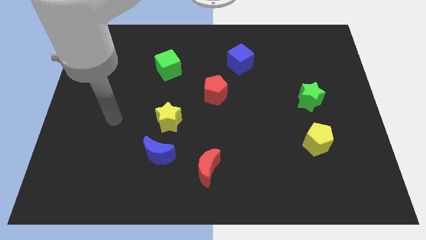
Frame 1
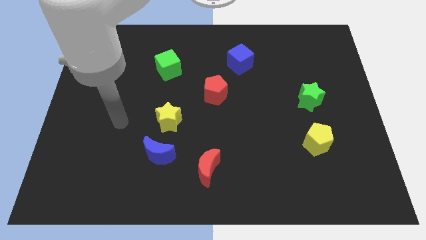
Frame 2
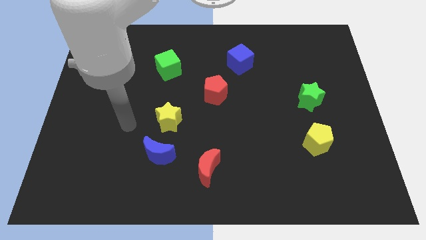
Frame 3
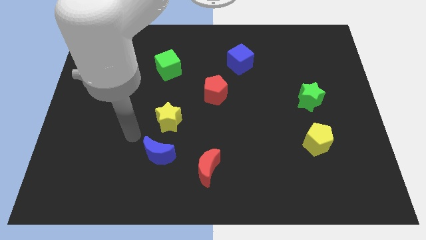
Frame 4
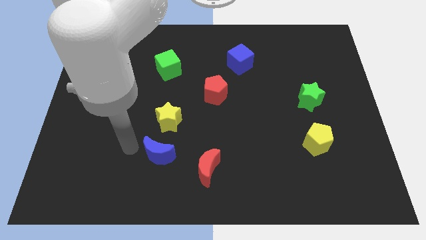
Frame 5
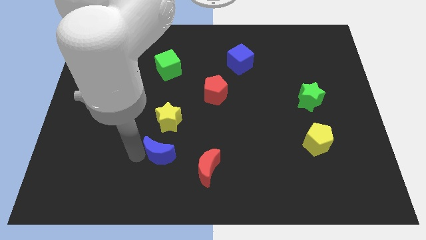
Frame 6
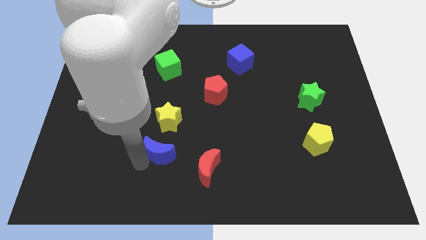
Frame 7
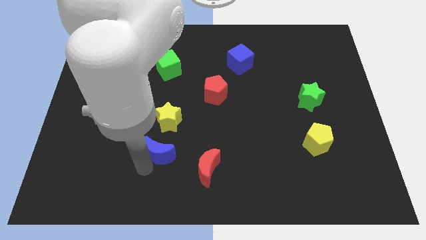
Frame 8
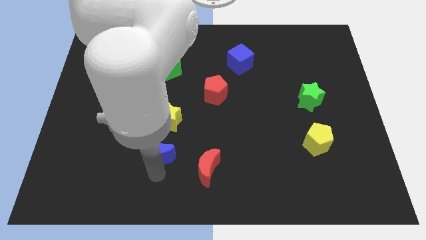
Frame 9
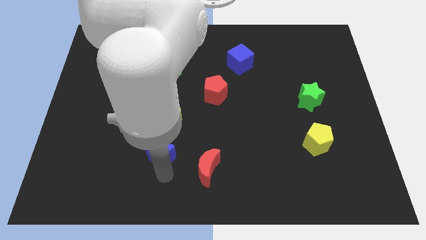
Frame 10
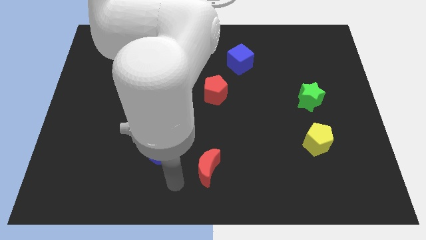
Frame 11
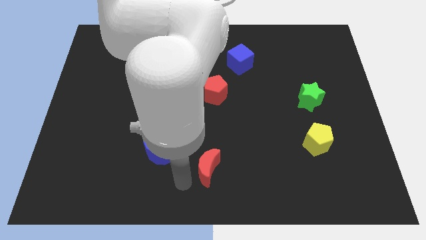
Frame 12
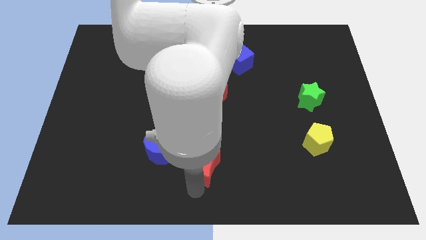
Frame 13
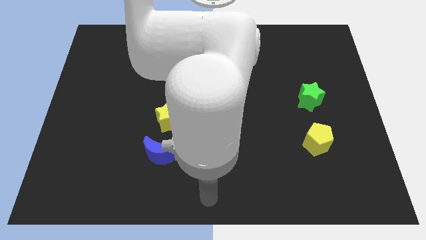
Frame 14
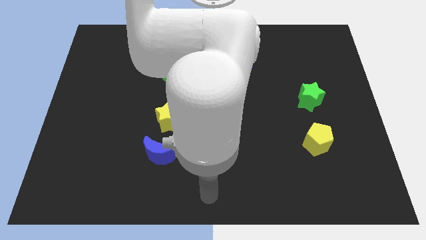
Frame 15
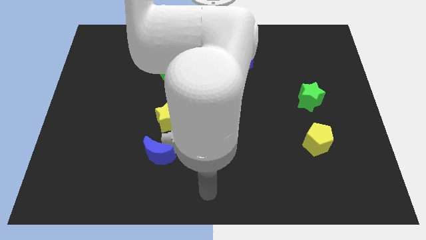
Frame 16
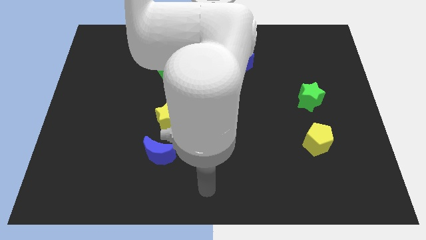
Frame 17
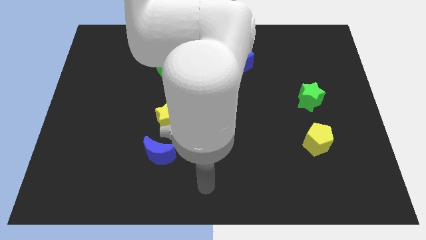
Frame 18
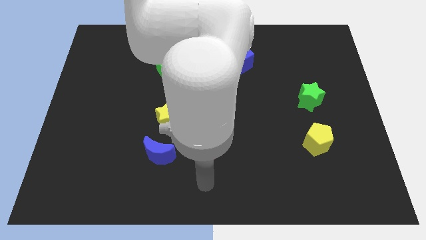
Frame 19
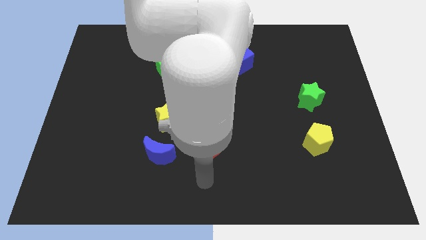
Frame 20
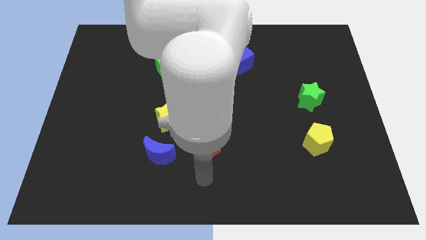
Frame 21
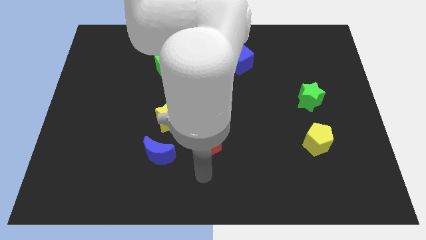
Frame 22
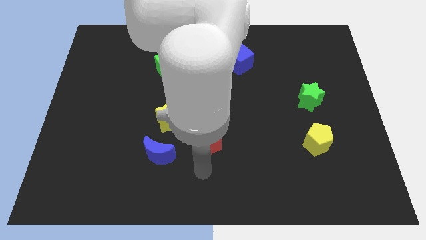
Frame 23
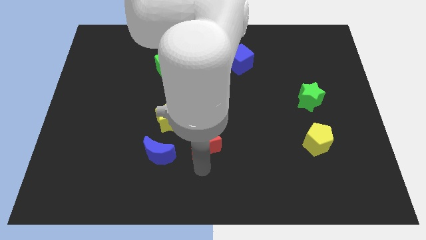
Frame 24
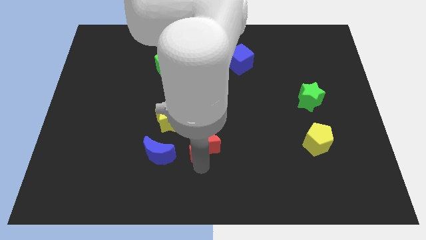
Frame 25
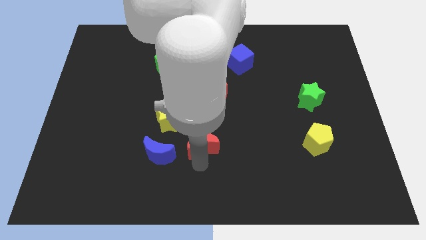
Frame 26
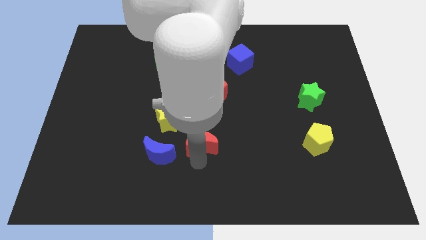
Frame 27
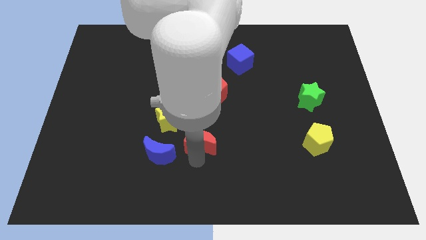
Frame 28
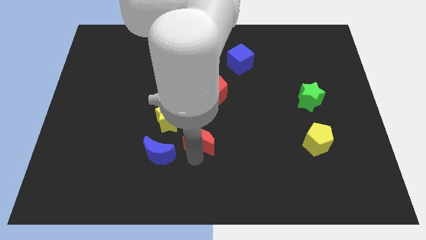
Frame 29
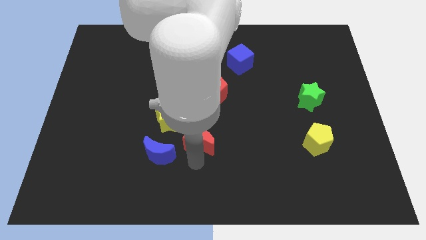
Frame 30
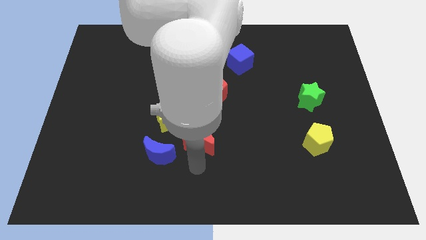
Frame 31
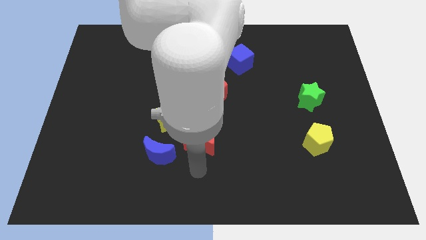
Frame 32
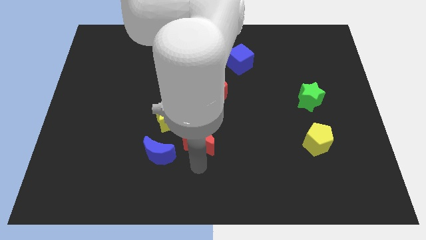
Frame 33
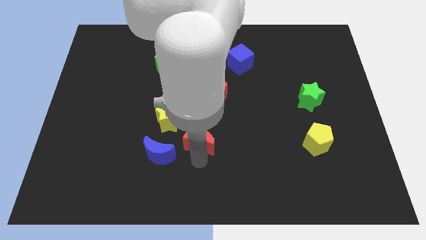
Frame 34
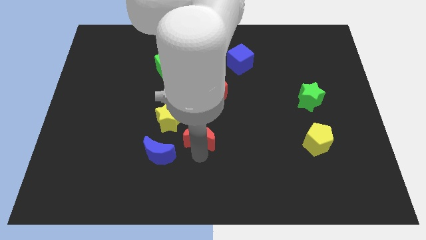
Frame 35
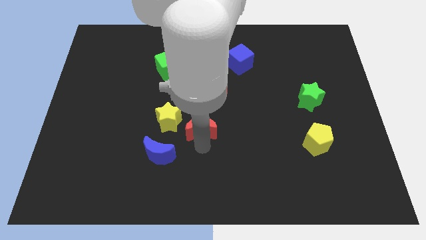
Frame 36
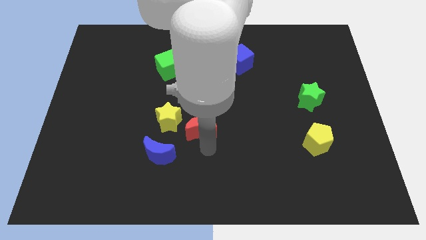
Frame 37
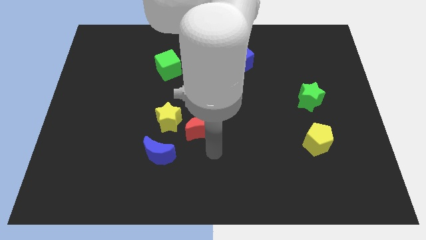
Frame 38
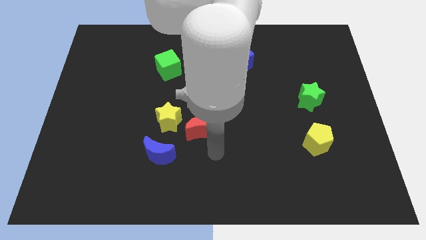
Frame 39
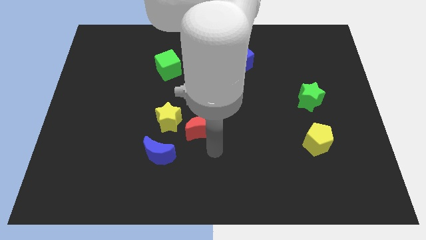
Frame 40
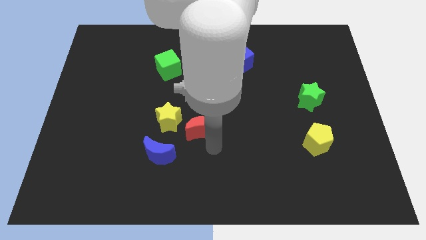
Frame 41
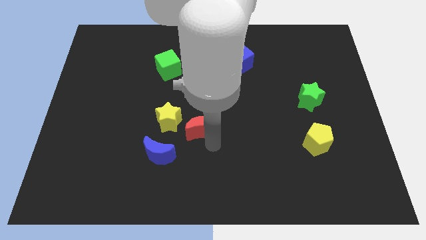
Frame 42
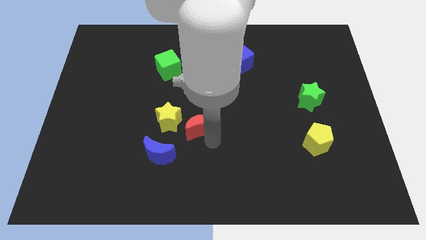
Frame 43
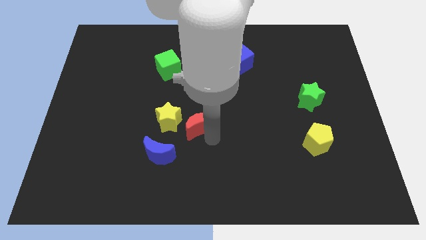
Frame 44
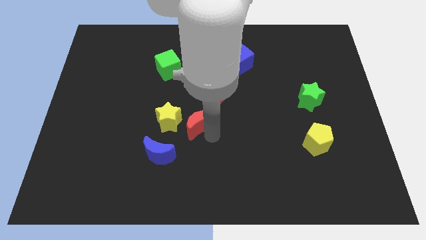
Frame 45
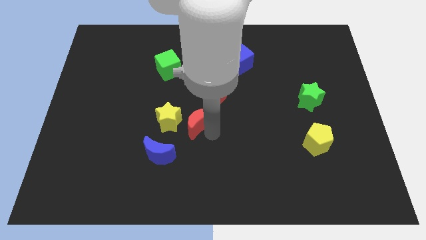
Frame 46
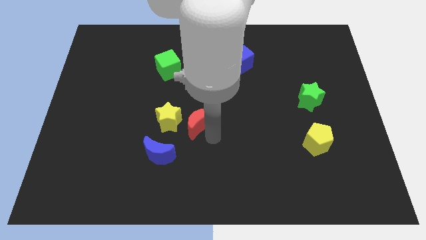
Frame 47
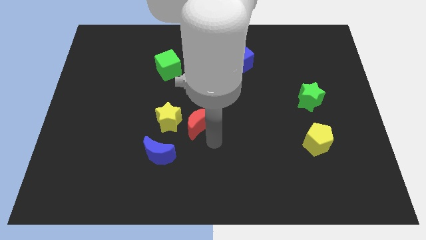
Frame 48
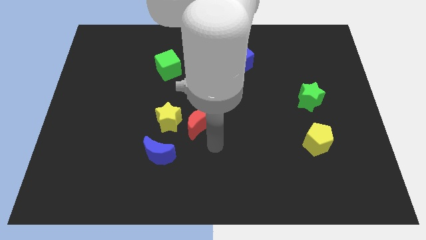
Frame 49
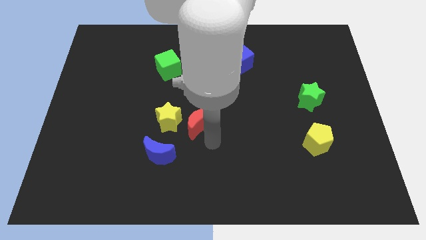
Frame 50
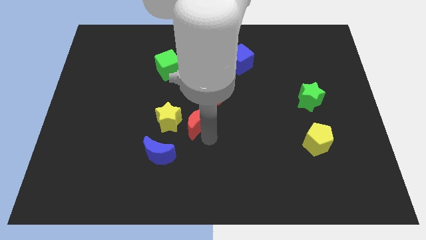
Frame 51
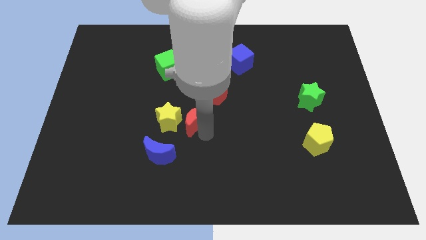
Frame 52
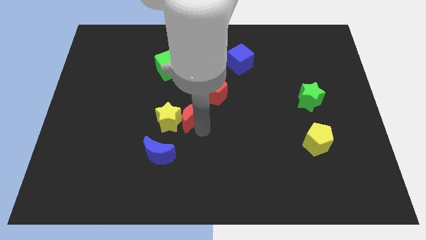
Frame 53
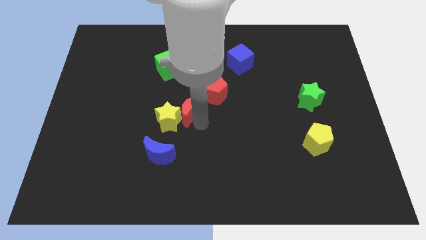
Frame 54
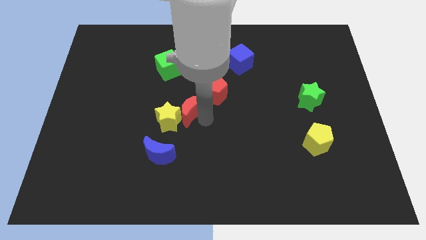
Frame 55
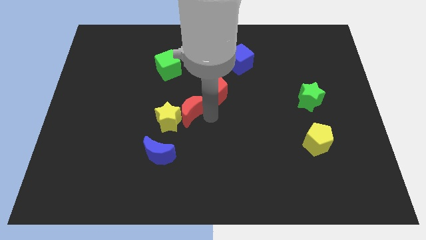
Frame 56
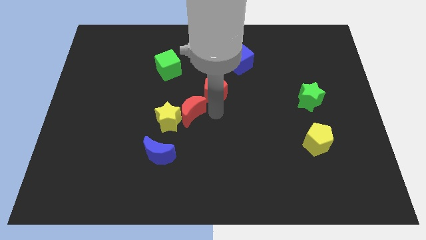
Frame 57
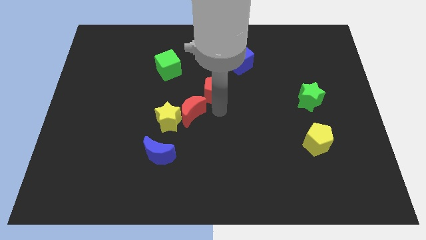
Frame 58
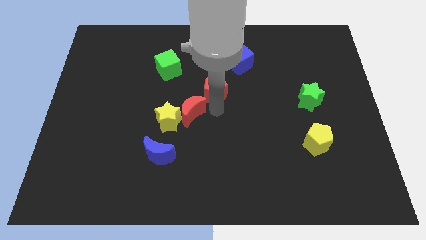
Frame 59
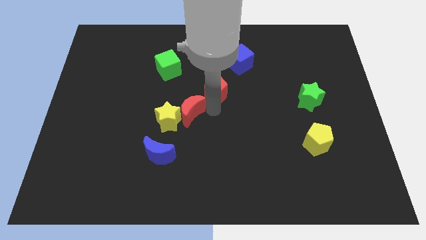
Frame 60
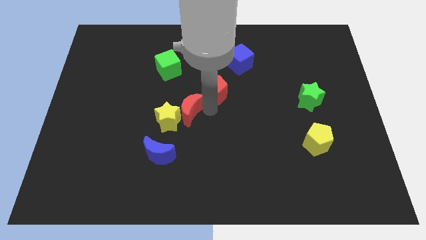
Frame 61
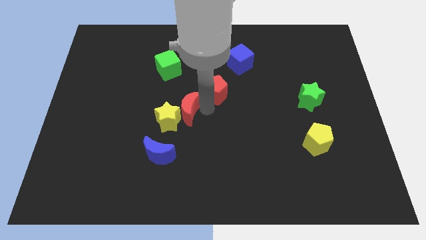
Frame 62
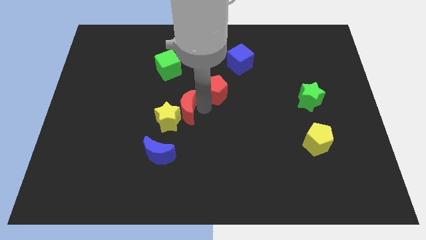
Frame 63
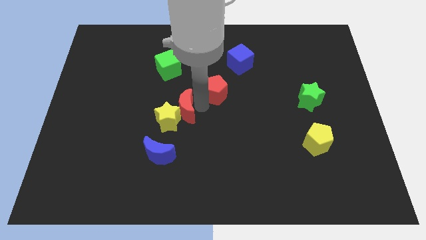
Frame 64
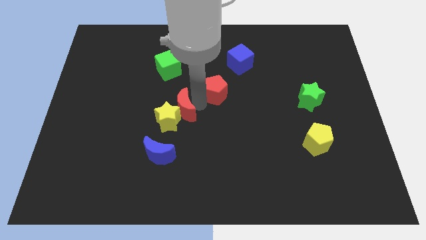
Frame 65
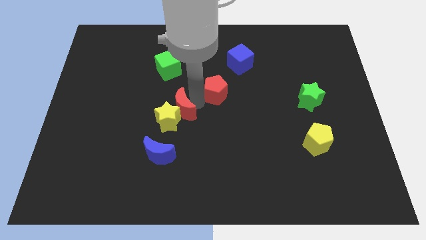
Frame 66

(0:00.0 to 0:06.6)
push the red moon above the blue moon
